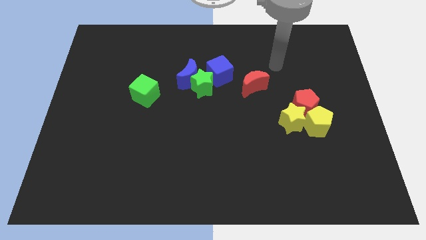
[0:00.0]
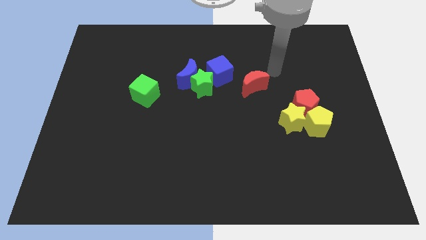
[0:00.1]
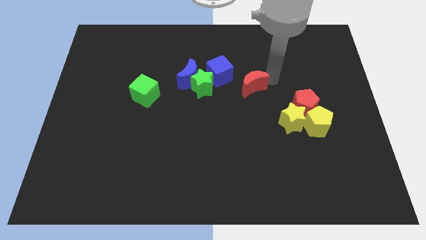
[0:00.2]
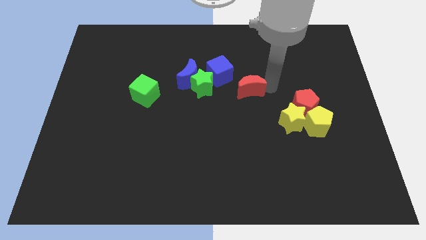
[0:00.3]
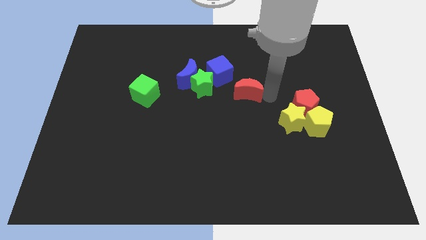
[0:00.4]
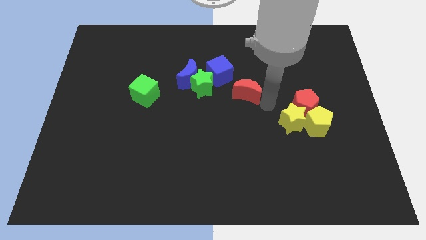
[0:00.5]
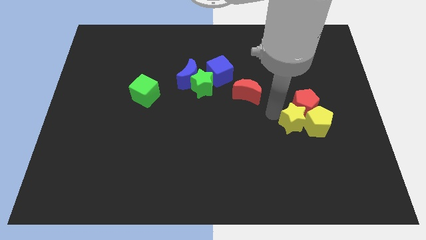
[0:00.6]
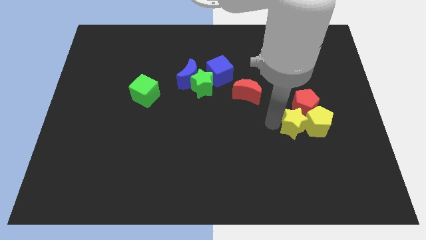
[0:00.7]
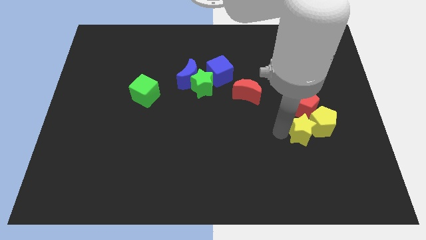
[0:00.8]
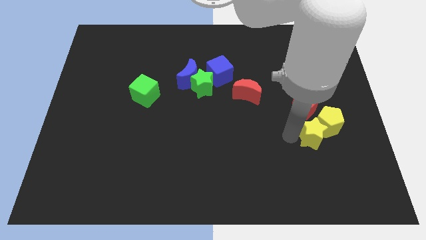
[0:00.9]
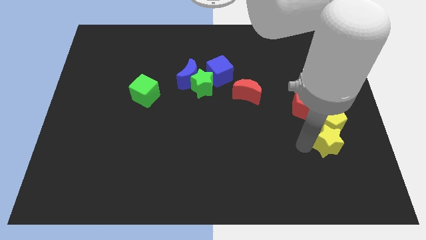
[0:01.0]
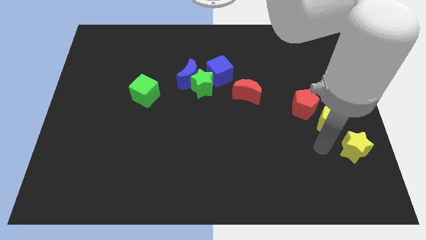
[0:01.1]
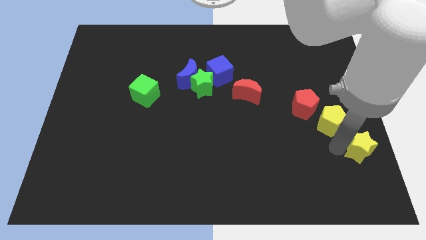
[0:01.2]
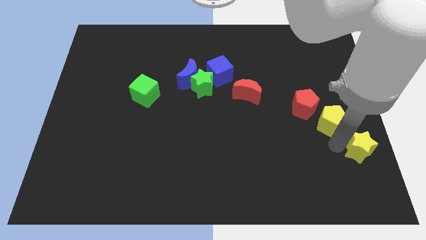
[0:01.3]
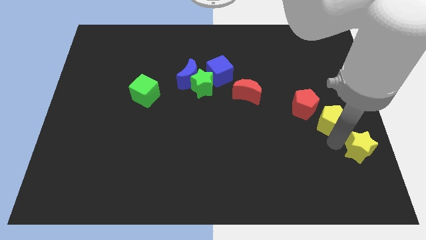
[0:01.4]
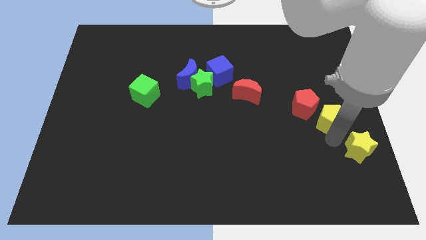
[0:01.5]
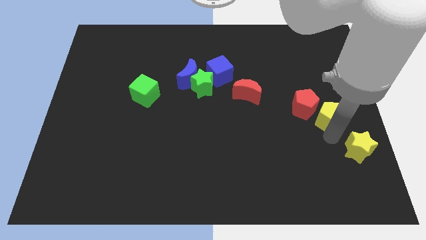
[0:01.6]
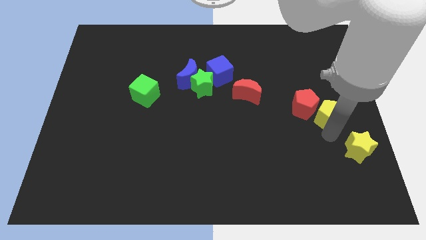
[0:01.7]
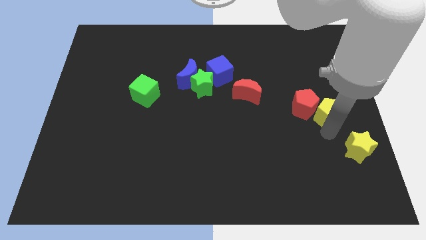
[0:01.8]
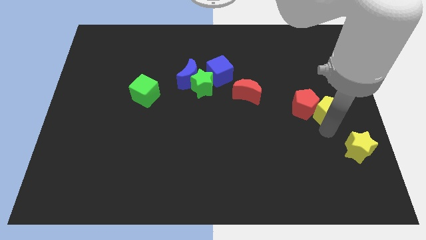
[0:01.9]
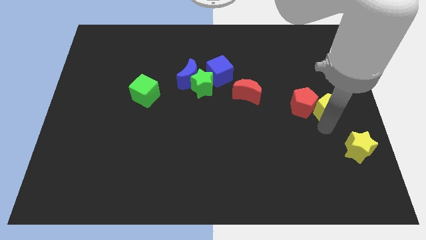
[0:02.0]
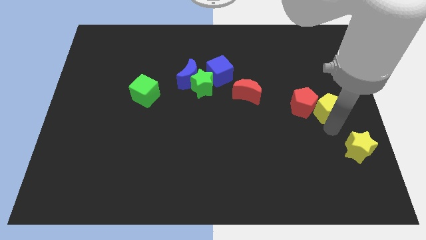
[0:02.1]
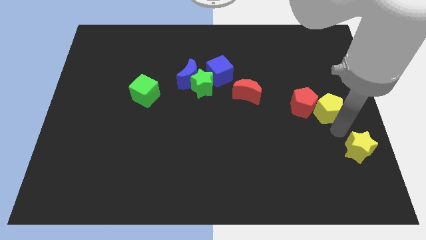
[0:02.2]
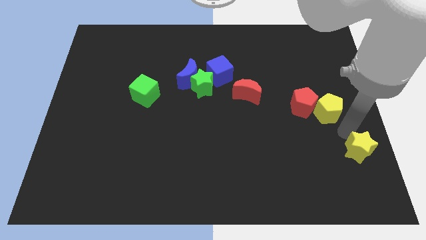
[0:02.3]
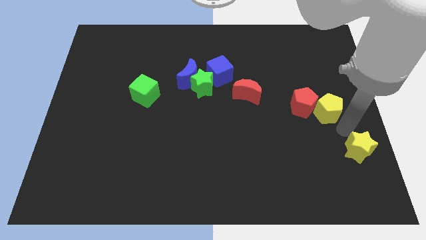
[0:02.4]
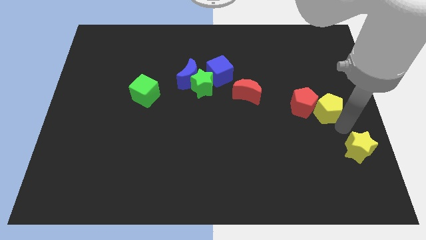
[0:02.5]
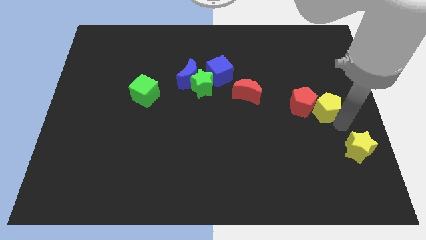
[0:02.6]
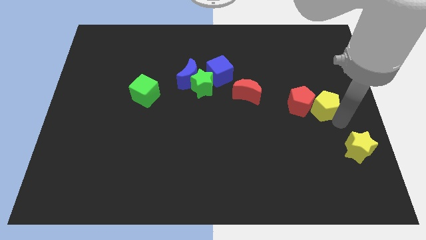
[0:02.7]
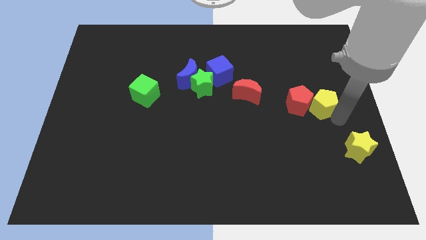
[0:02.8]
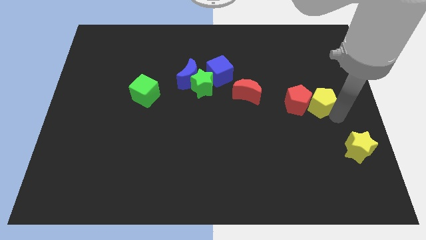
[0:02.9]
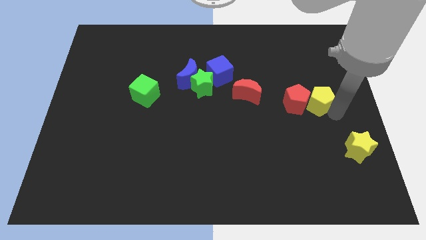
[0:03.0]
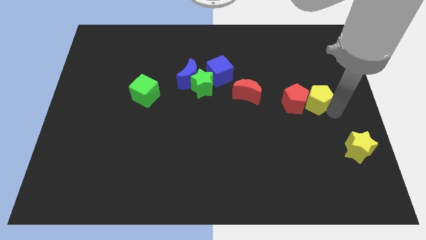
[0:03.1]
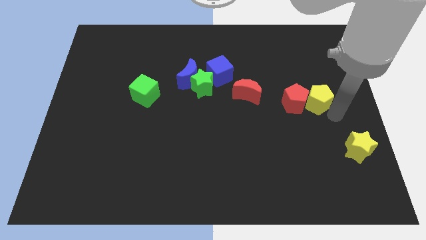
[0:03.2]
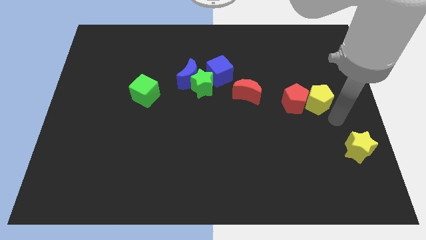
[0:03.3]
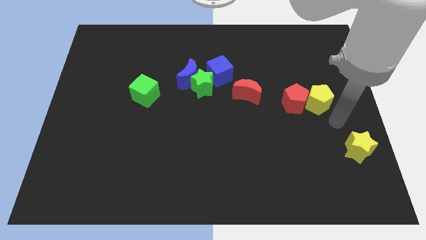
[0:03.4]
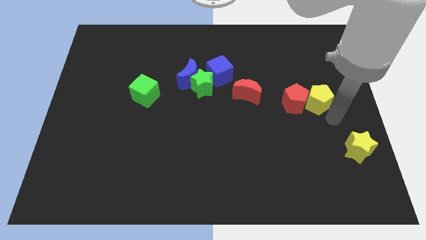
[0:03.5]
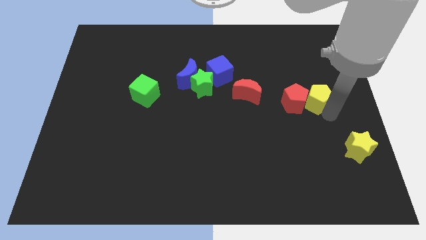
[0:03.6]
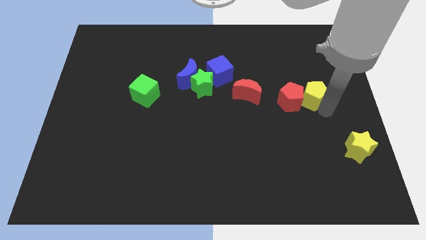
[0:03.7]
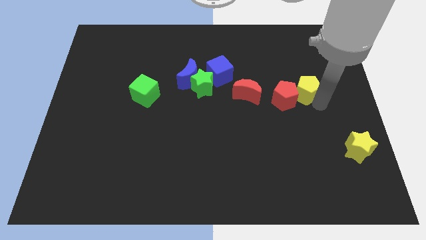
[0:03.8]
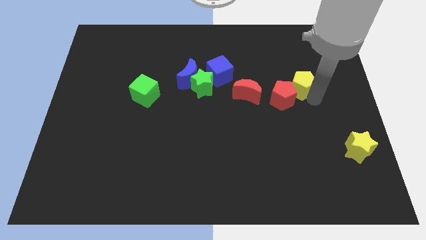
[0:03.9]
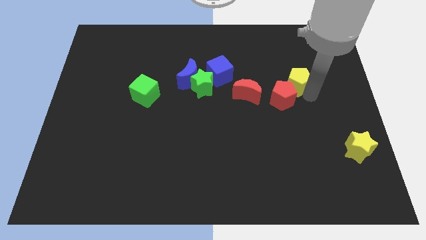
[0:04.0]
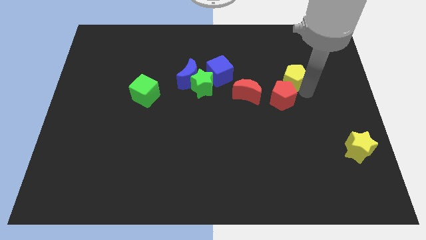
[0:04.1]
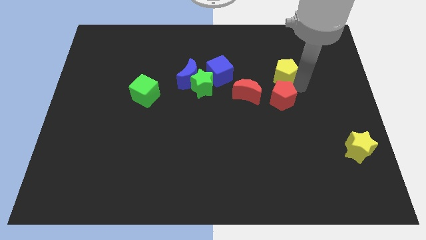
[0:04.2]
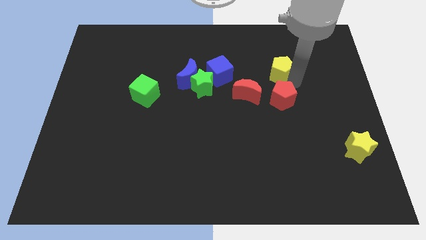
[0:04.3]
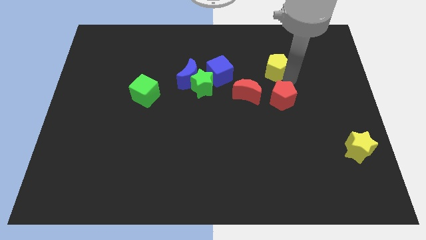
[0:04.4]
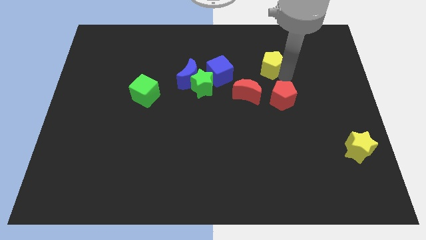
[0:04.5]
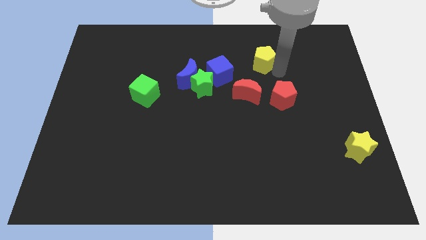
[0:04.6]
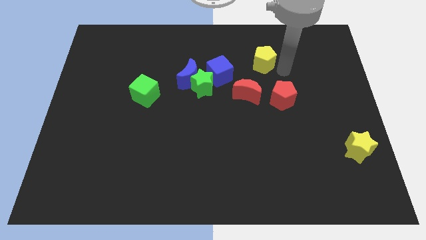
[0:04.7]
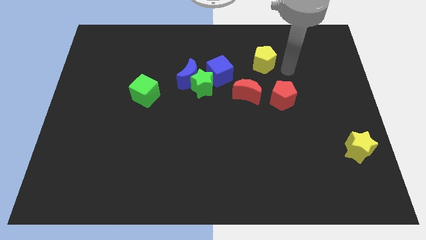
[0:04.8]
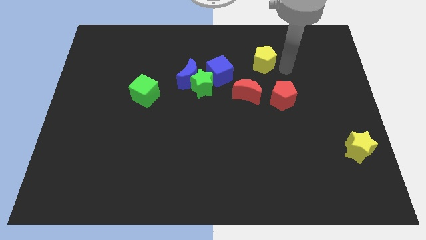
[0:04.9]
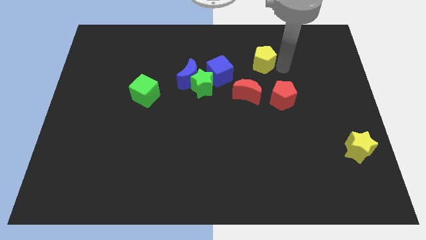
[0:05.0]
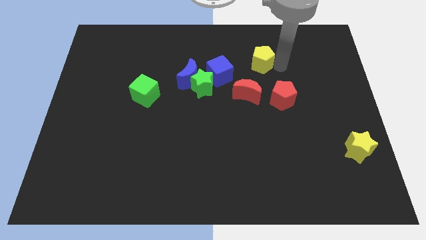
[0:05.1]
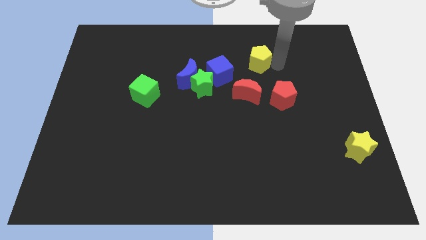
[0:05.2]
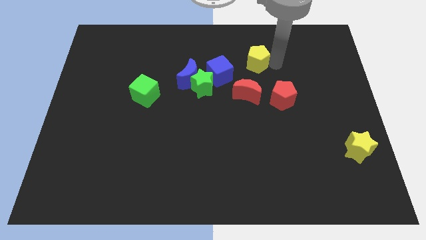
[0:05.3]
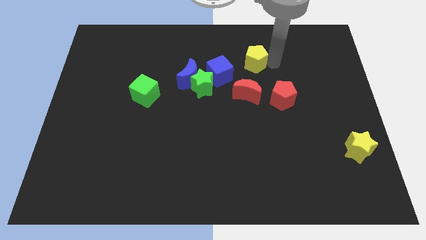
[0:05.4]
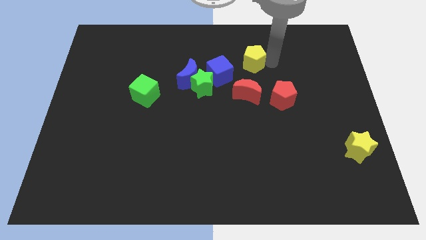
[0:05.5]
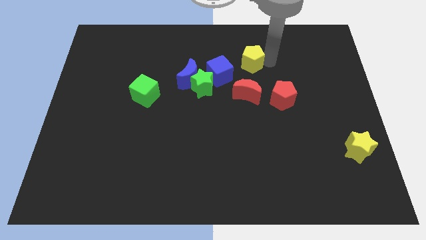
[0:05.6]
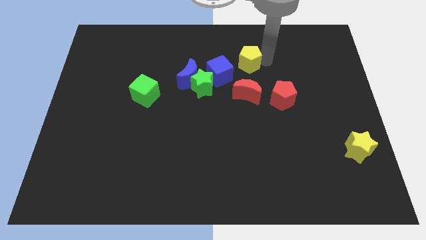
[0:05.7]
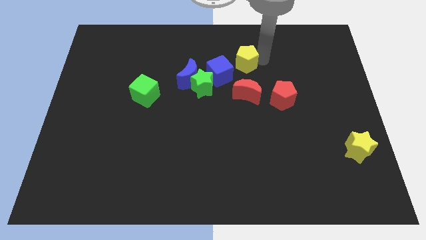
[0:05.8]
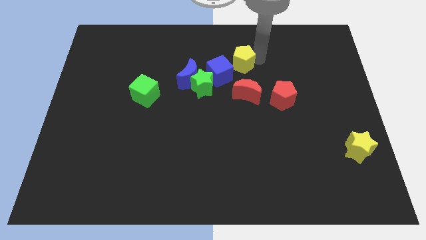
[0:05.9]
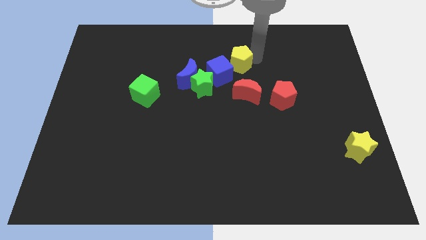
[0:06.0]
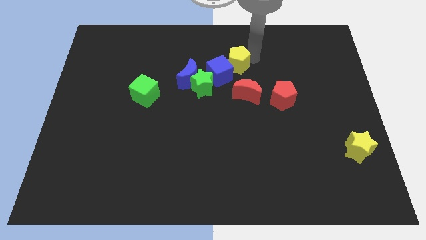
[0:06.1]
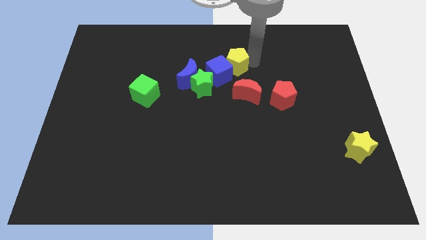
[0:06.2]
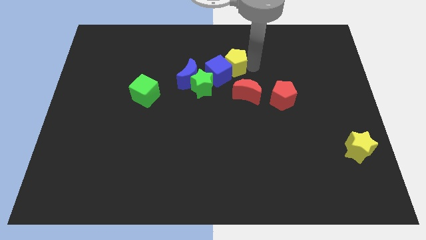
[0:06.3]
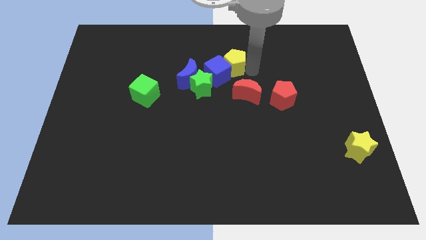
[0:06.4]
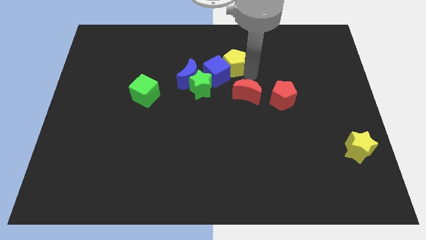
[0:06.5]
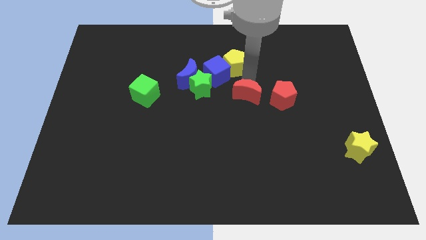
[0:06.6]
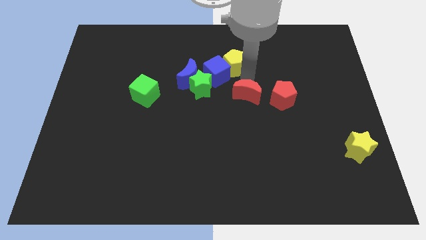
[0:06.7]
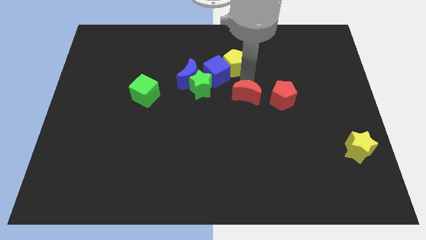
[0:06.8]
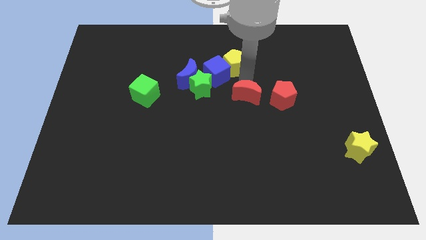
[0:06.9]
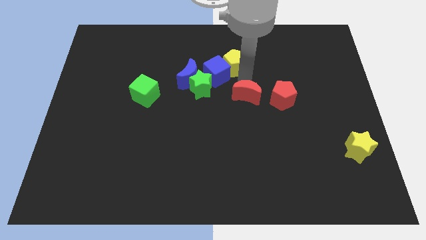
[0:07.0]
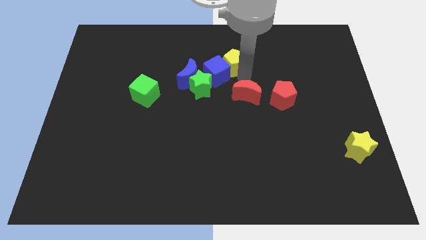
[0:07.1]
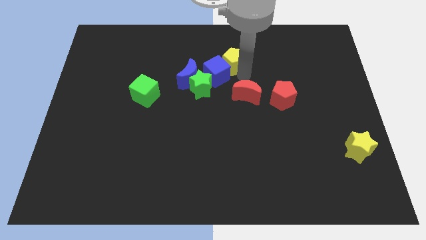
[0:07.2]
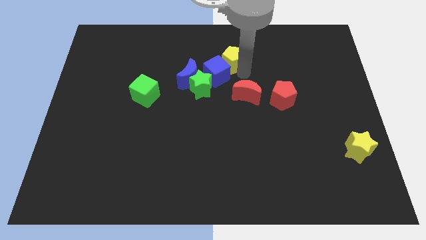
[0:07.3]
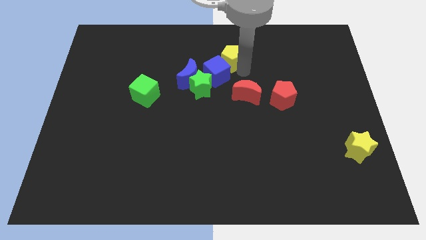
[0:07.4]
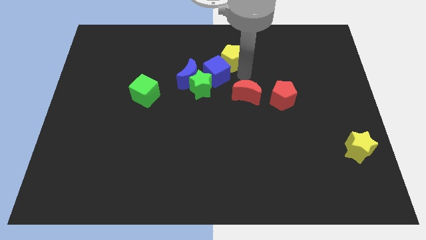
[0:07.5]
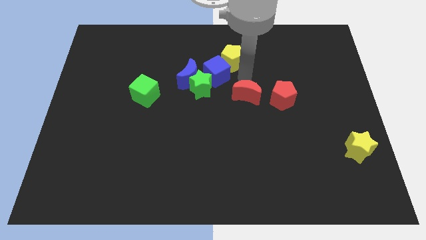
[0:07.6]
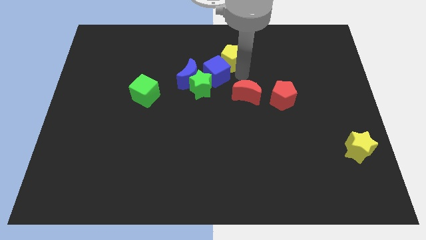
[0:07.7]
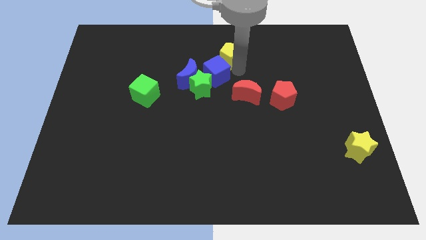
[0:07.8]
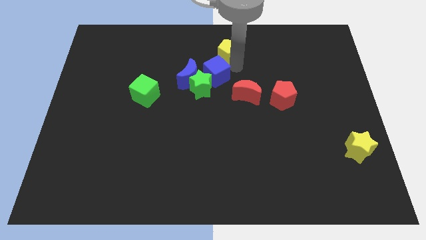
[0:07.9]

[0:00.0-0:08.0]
move the yellow pentagon to the top side

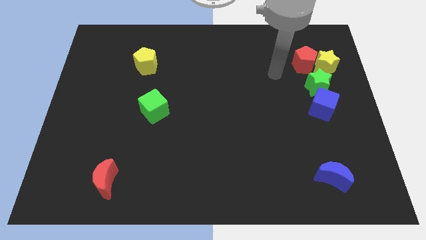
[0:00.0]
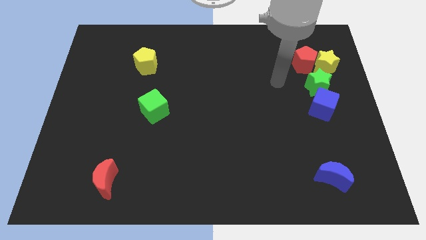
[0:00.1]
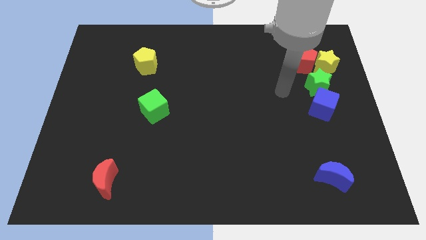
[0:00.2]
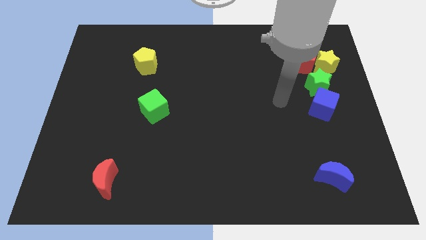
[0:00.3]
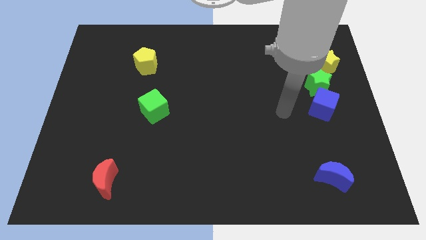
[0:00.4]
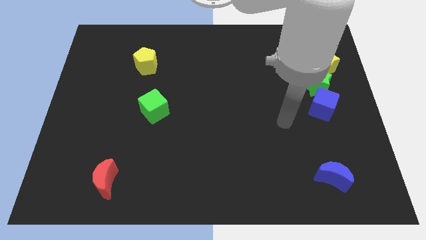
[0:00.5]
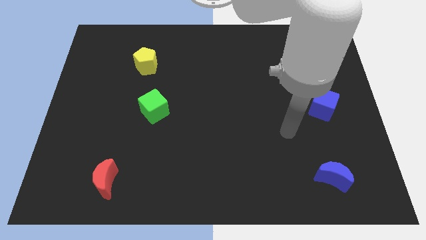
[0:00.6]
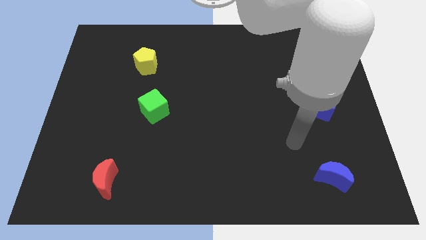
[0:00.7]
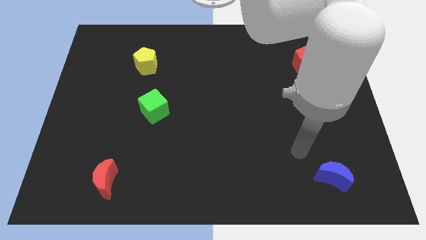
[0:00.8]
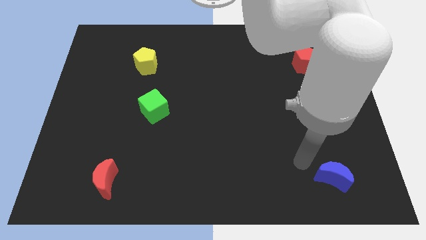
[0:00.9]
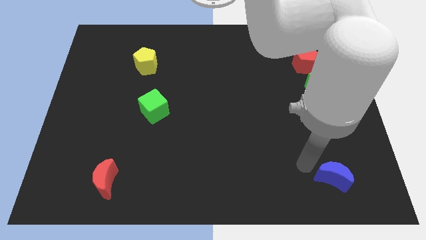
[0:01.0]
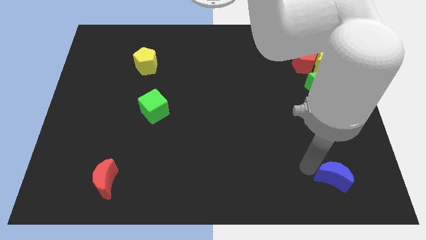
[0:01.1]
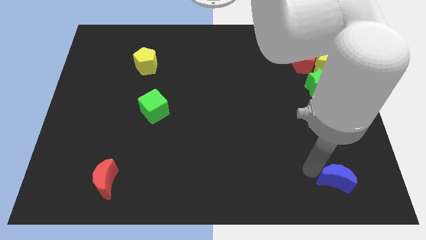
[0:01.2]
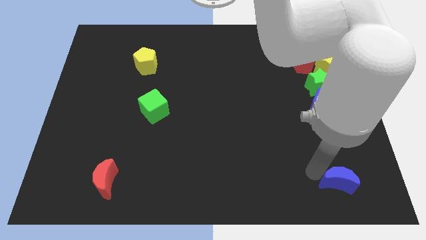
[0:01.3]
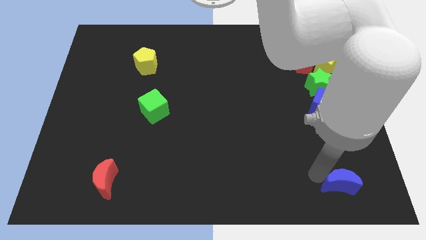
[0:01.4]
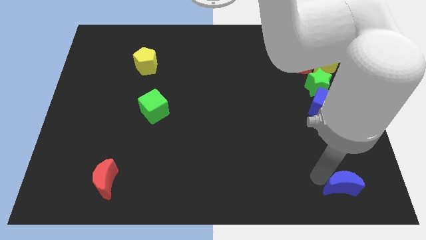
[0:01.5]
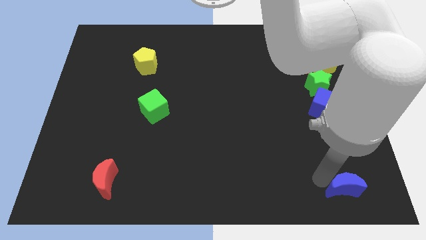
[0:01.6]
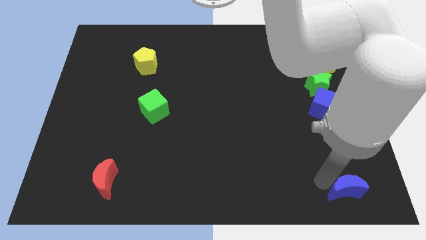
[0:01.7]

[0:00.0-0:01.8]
push the blue moon to the bottom right
